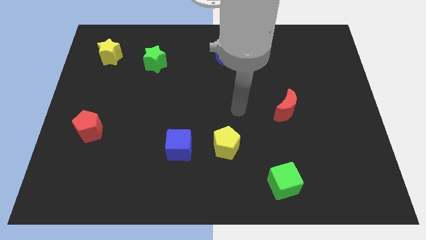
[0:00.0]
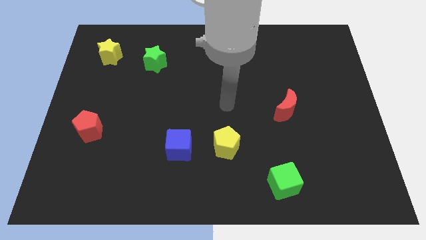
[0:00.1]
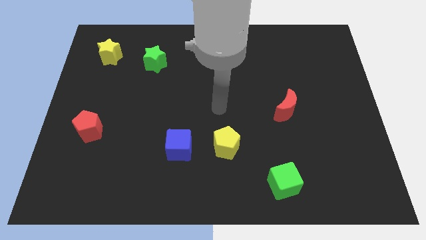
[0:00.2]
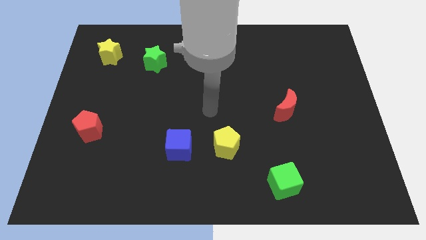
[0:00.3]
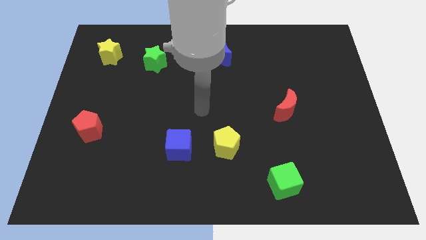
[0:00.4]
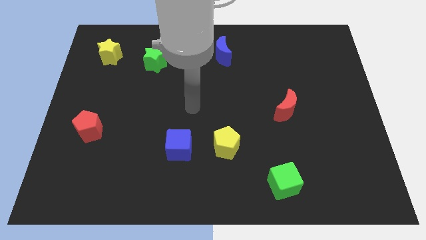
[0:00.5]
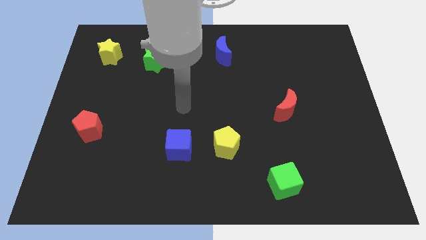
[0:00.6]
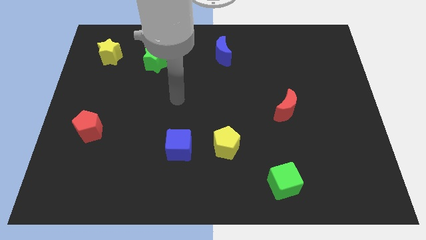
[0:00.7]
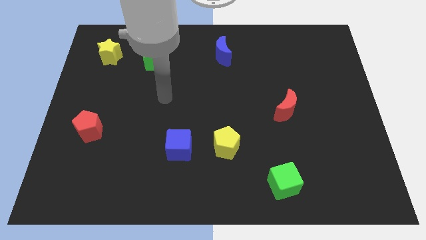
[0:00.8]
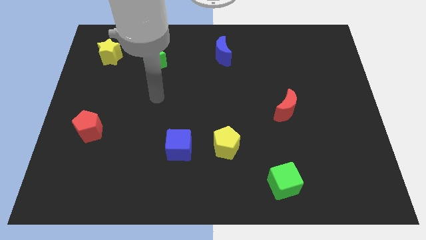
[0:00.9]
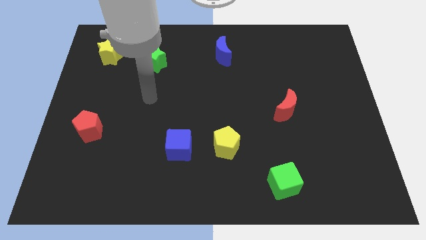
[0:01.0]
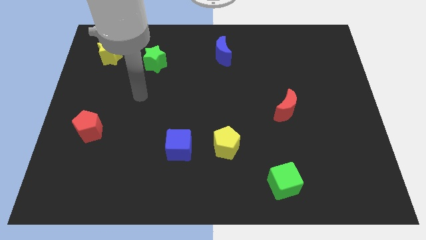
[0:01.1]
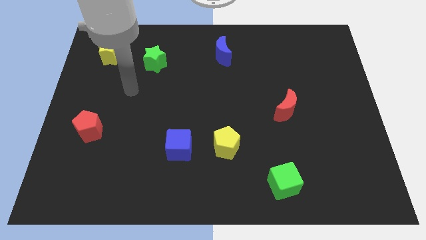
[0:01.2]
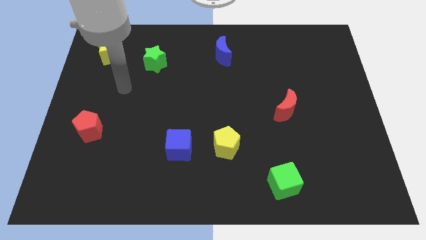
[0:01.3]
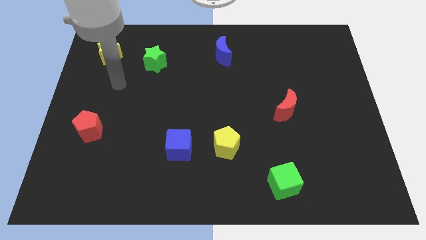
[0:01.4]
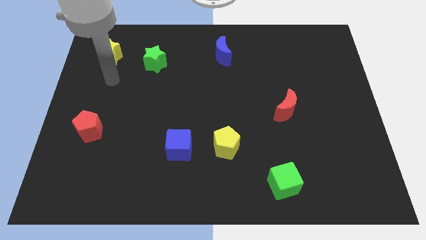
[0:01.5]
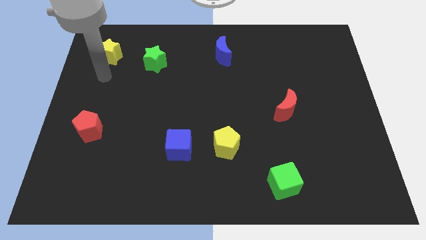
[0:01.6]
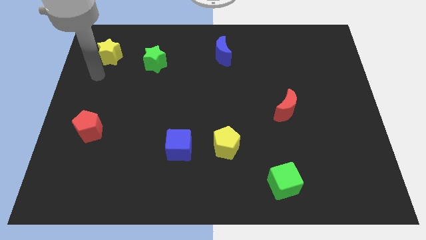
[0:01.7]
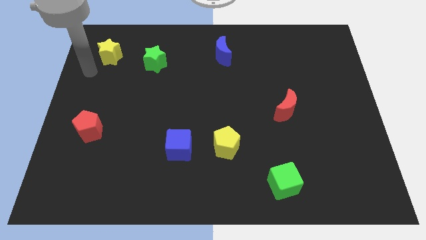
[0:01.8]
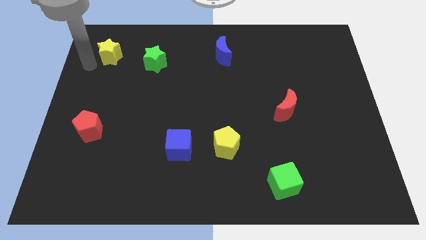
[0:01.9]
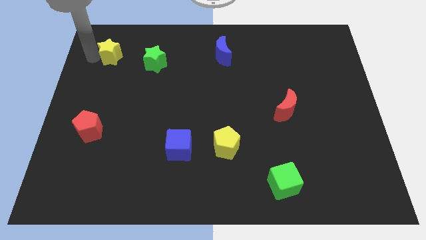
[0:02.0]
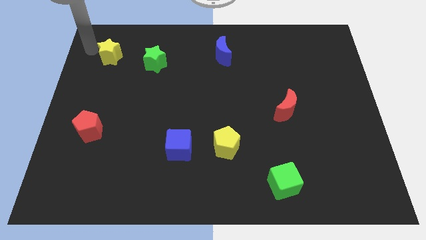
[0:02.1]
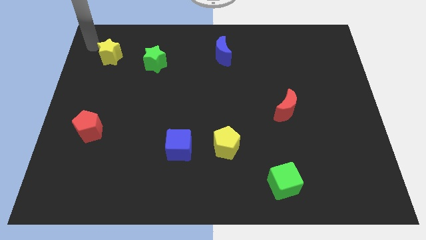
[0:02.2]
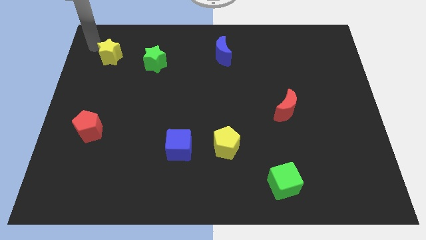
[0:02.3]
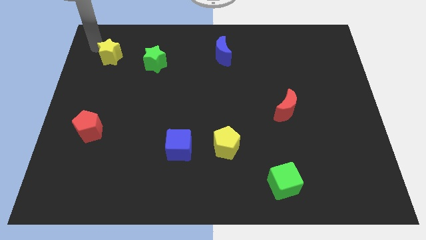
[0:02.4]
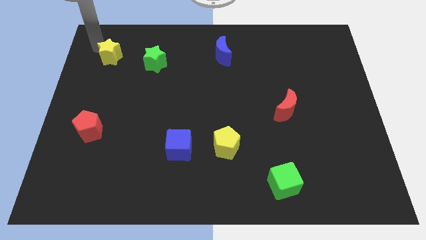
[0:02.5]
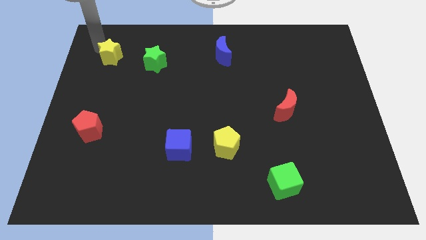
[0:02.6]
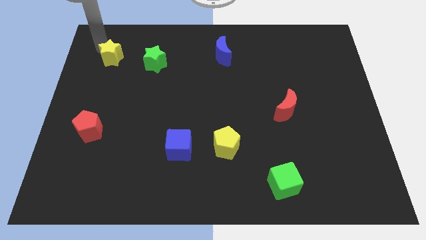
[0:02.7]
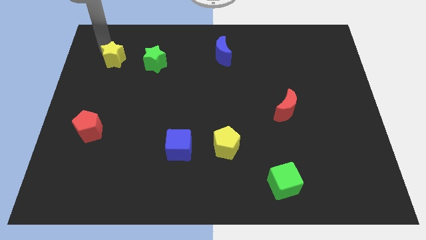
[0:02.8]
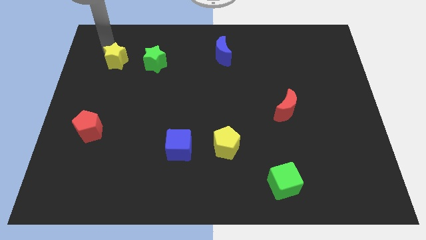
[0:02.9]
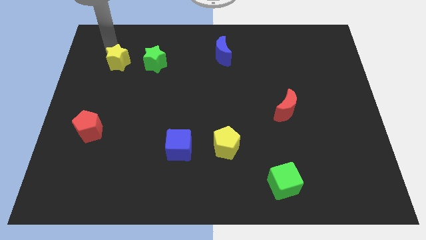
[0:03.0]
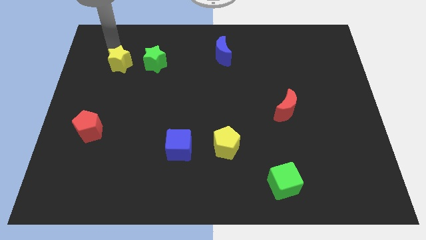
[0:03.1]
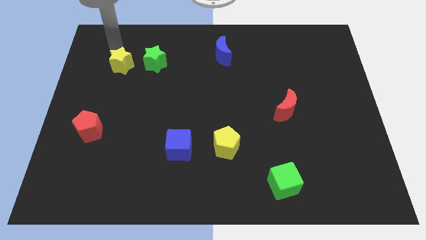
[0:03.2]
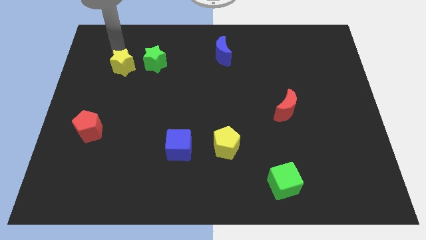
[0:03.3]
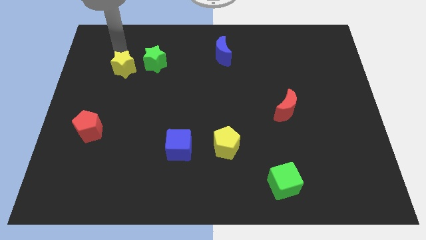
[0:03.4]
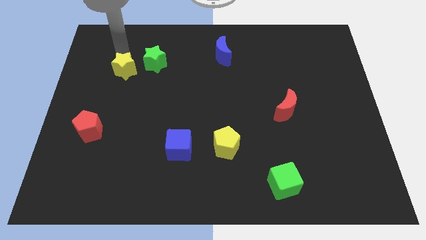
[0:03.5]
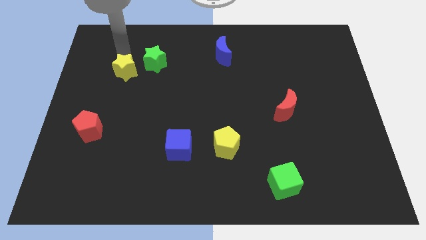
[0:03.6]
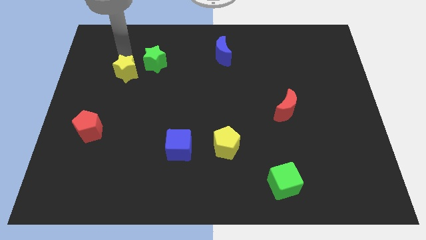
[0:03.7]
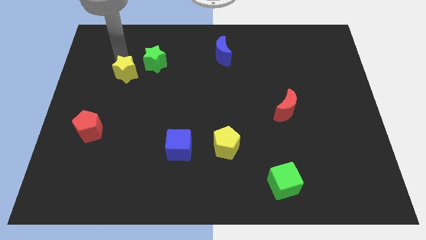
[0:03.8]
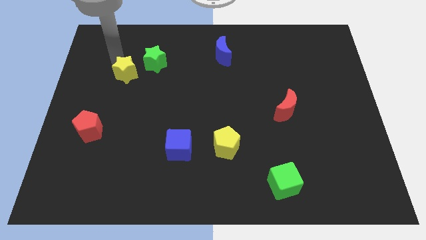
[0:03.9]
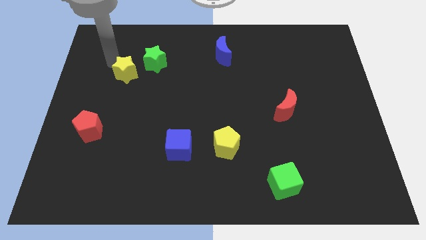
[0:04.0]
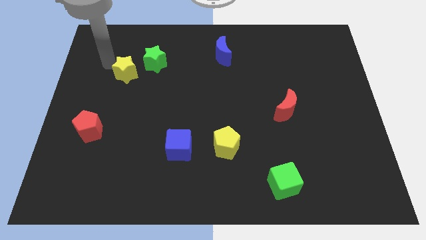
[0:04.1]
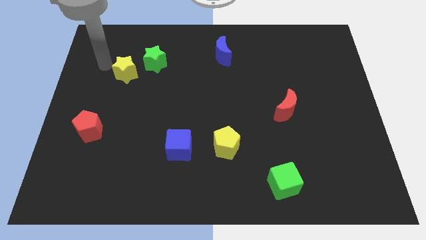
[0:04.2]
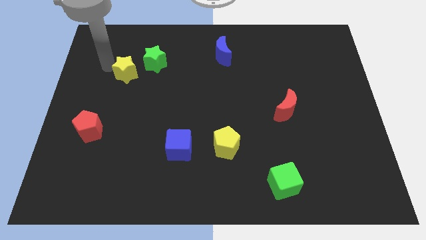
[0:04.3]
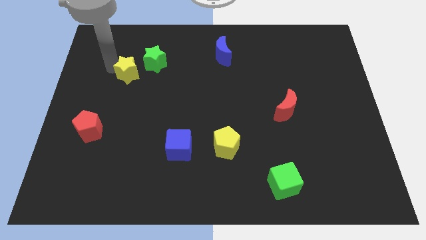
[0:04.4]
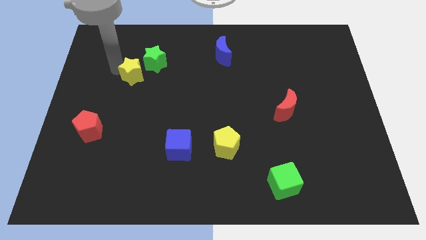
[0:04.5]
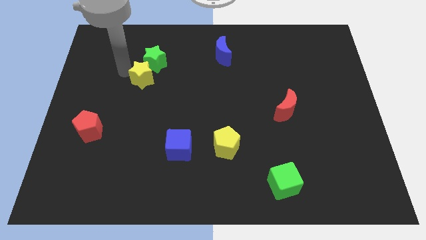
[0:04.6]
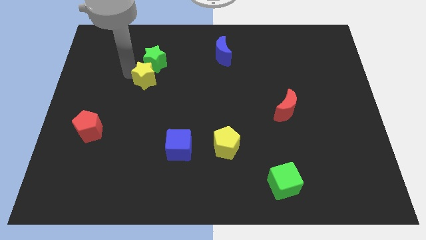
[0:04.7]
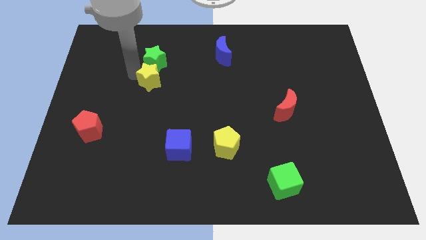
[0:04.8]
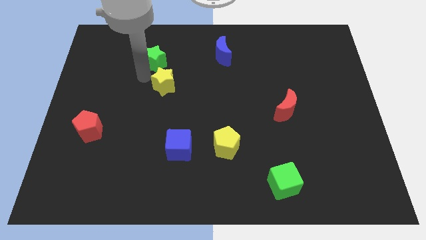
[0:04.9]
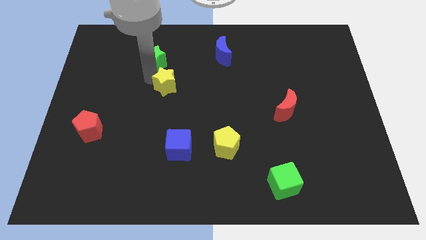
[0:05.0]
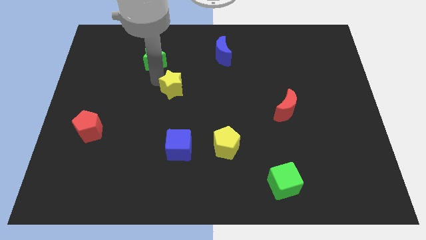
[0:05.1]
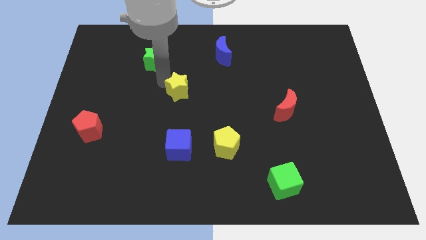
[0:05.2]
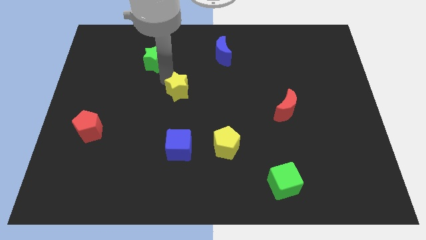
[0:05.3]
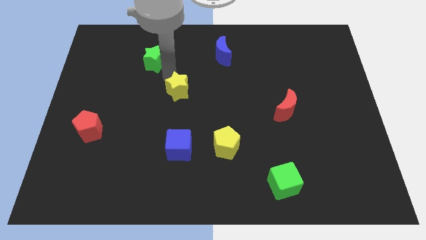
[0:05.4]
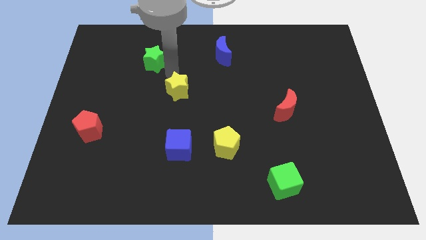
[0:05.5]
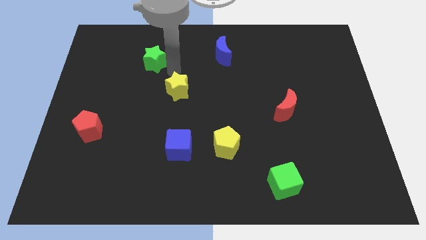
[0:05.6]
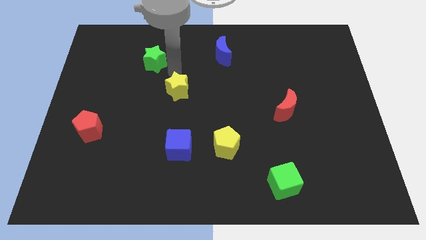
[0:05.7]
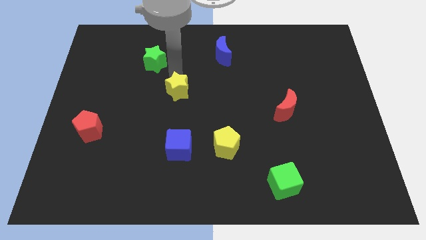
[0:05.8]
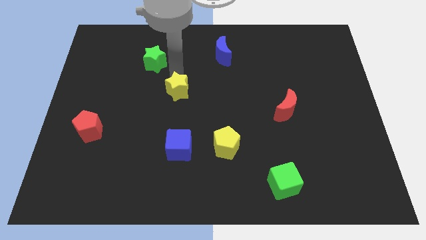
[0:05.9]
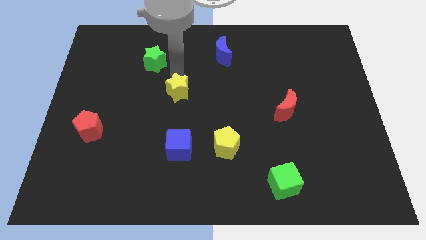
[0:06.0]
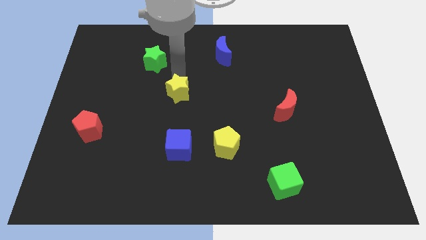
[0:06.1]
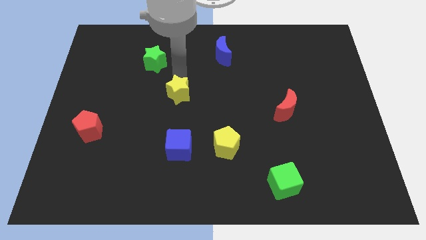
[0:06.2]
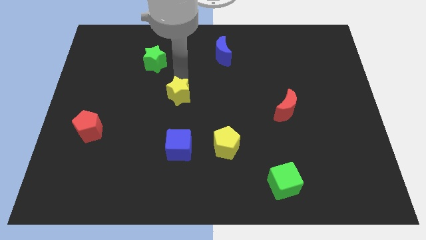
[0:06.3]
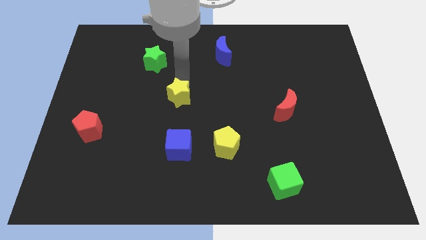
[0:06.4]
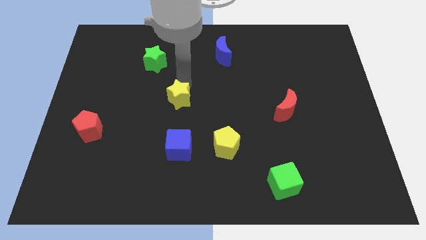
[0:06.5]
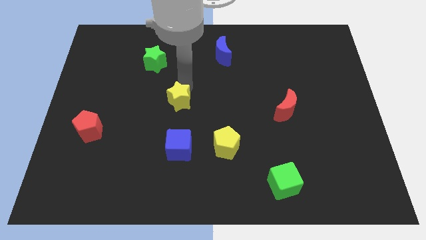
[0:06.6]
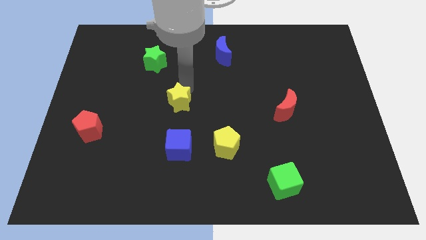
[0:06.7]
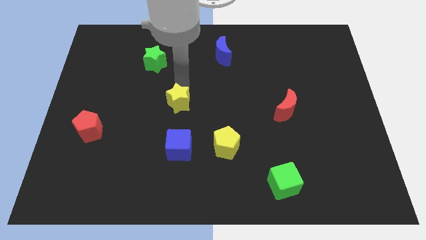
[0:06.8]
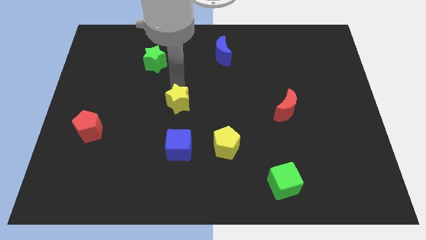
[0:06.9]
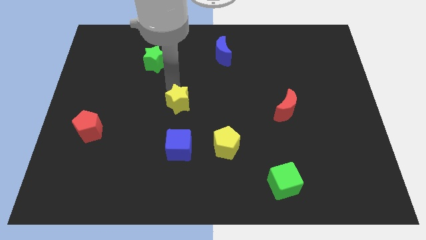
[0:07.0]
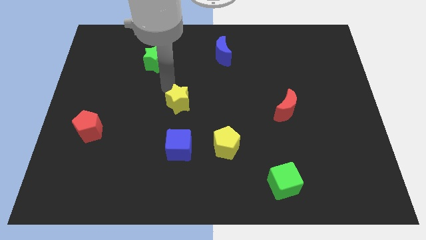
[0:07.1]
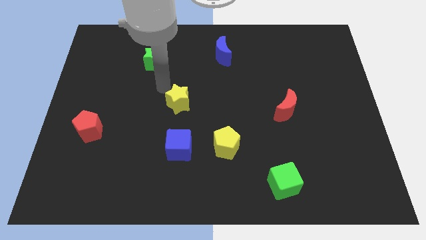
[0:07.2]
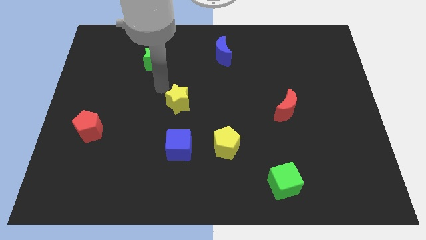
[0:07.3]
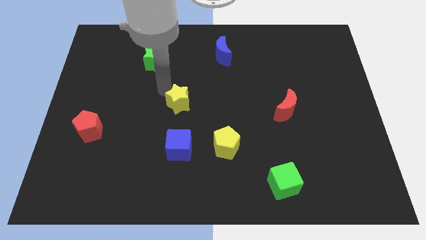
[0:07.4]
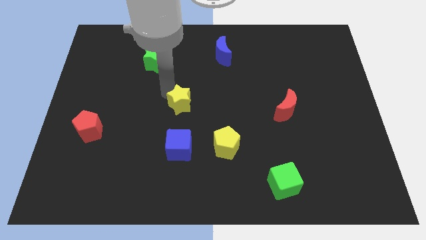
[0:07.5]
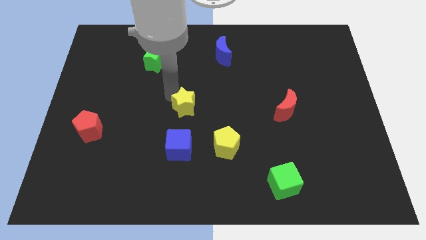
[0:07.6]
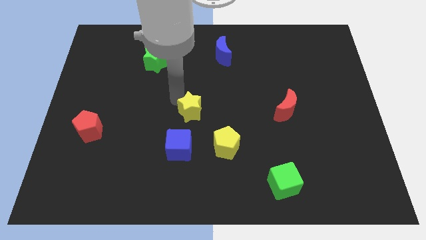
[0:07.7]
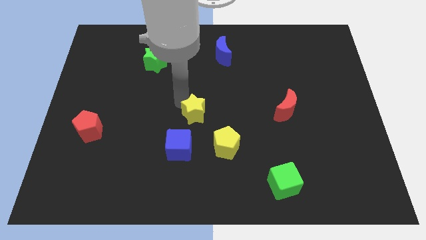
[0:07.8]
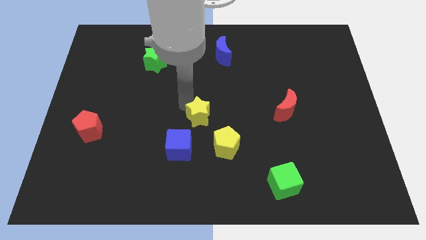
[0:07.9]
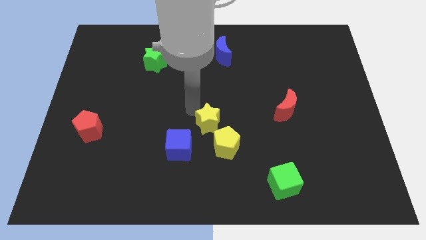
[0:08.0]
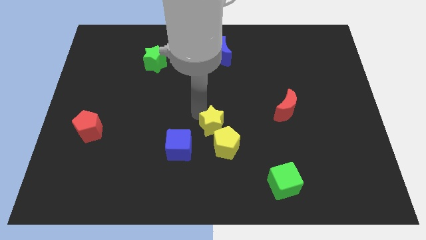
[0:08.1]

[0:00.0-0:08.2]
slide the yellow star towards the yellow pentagon
